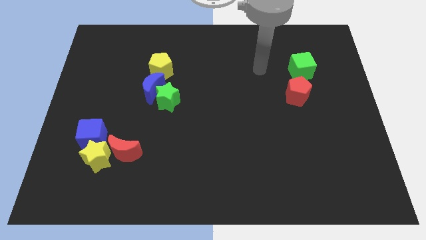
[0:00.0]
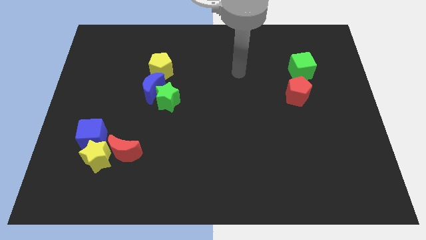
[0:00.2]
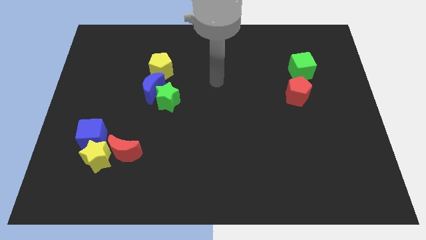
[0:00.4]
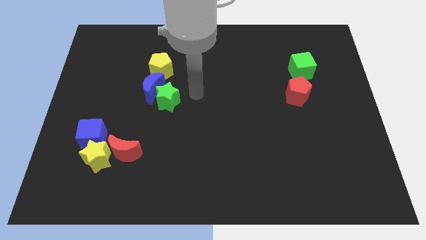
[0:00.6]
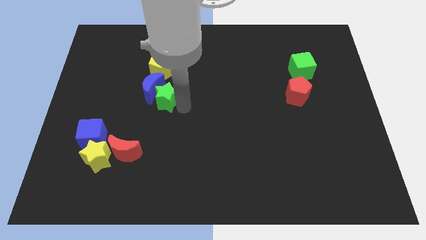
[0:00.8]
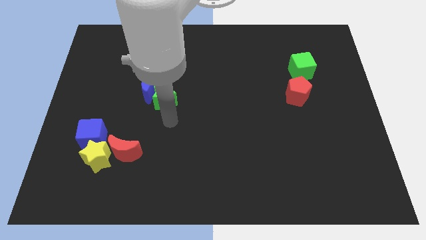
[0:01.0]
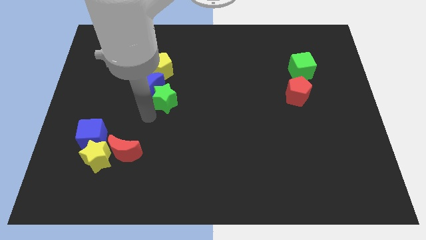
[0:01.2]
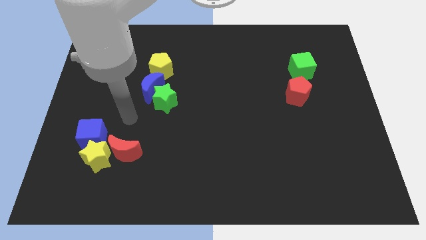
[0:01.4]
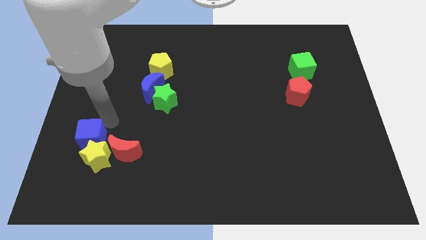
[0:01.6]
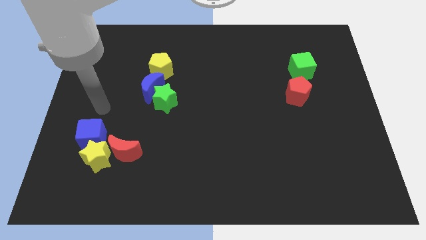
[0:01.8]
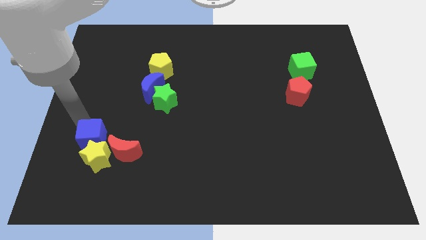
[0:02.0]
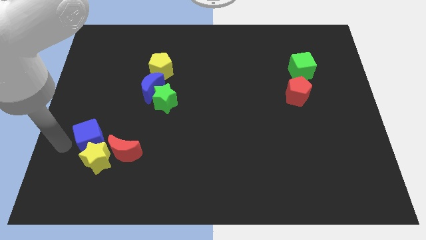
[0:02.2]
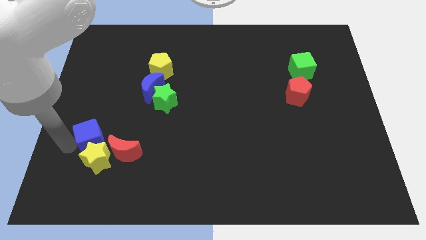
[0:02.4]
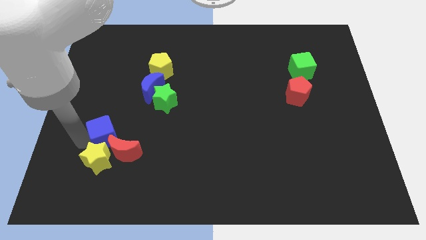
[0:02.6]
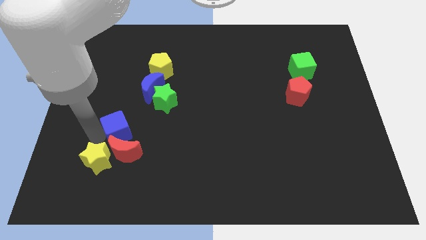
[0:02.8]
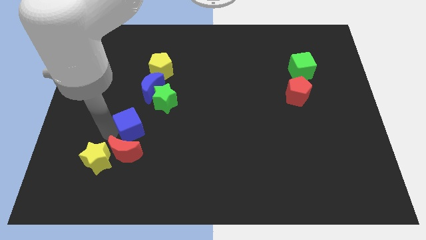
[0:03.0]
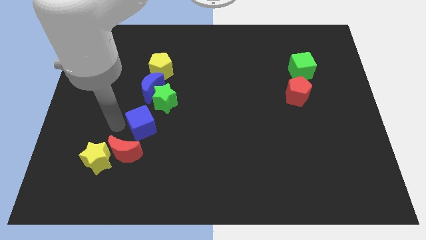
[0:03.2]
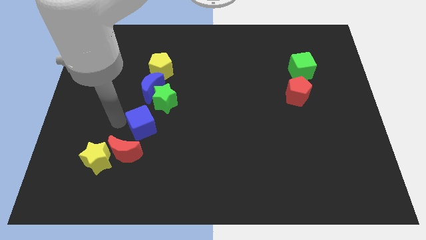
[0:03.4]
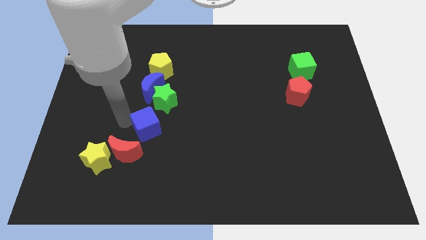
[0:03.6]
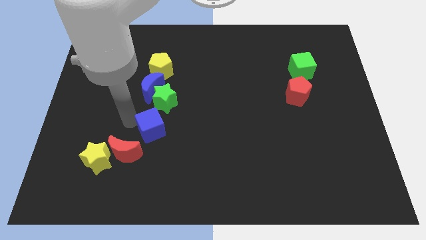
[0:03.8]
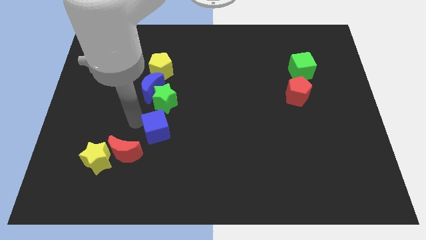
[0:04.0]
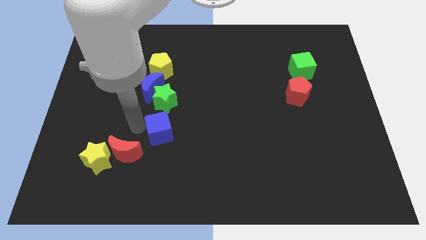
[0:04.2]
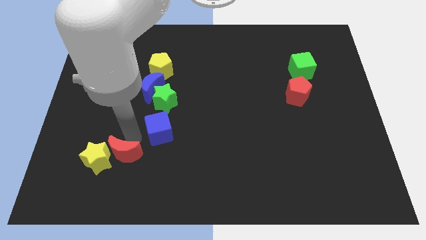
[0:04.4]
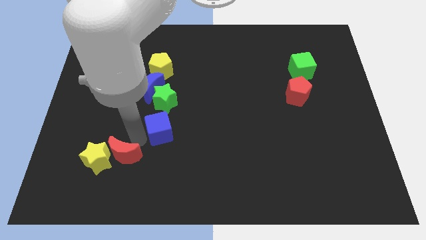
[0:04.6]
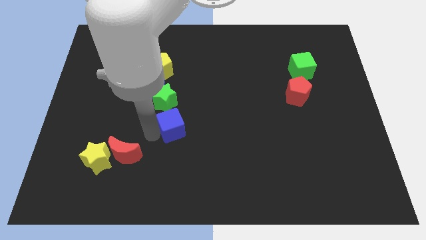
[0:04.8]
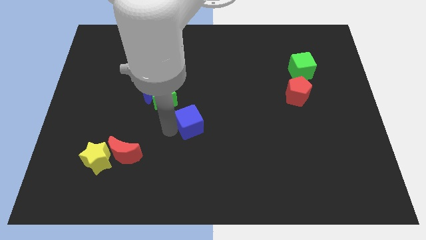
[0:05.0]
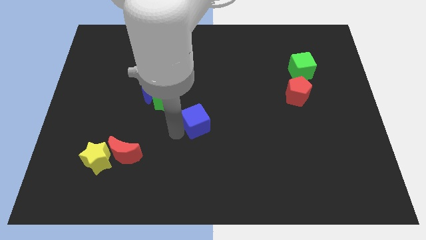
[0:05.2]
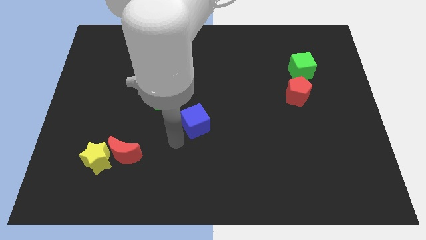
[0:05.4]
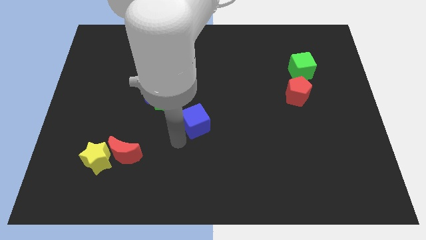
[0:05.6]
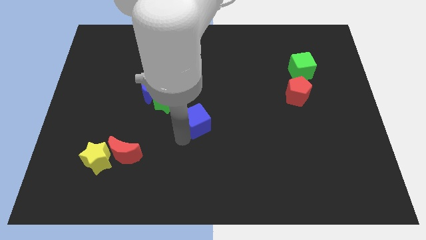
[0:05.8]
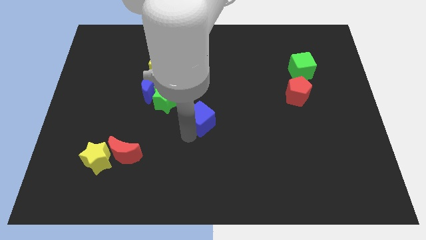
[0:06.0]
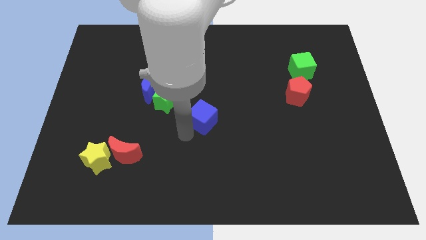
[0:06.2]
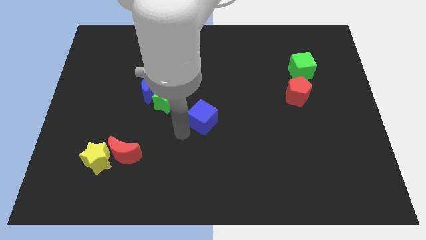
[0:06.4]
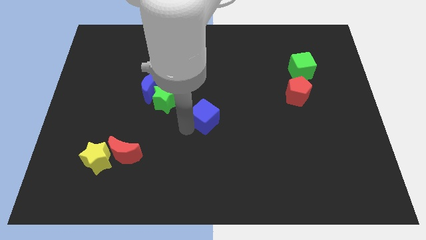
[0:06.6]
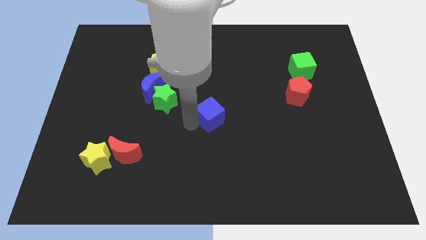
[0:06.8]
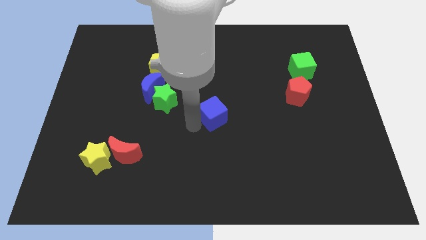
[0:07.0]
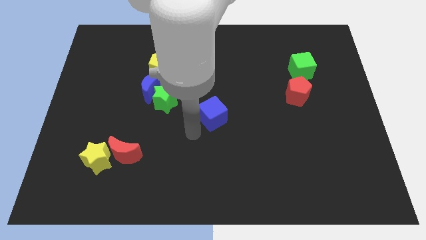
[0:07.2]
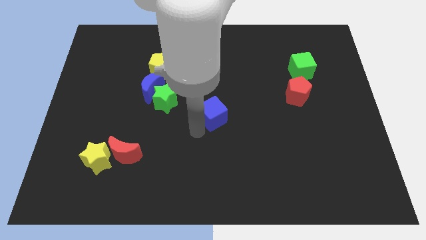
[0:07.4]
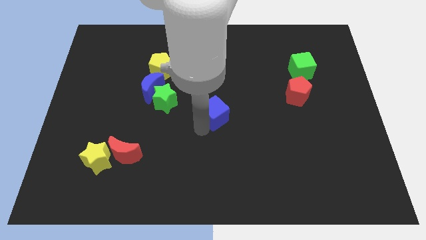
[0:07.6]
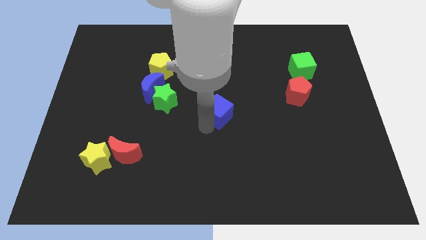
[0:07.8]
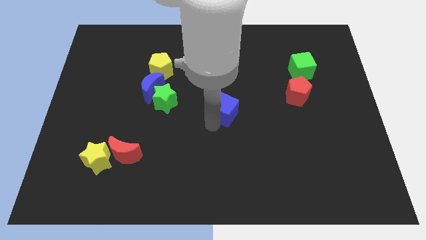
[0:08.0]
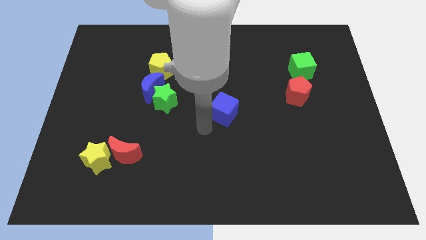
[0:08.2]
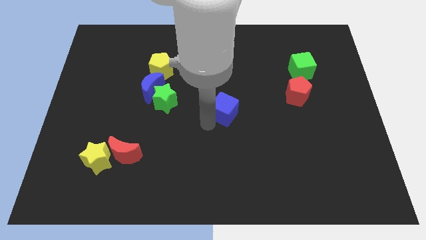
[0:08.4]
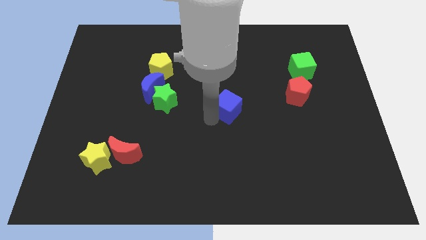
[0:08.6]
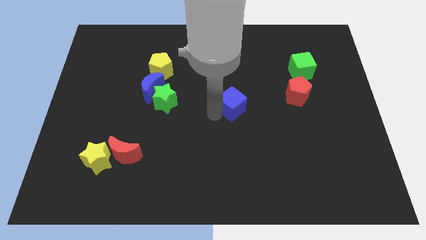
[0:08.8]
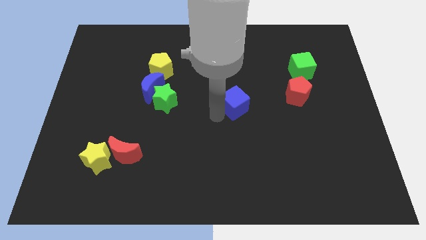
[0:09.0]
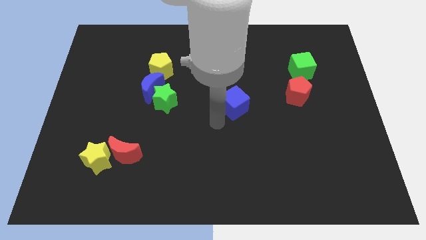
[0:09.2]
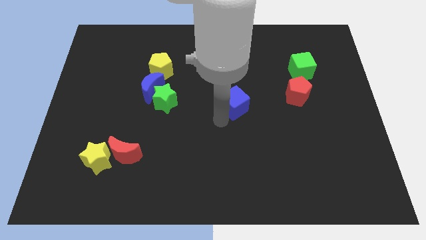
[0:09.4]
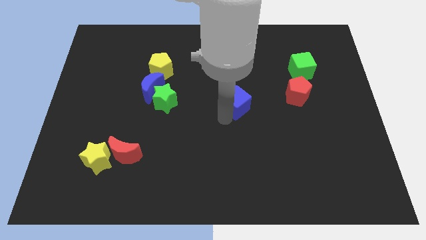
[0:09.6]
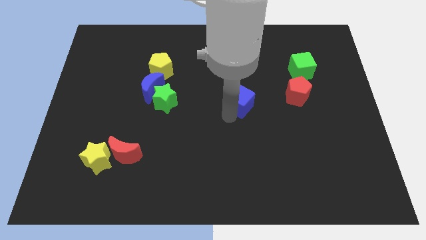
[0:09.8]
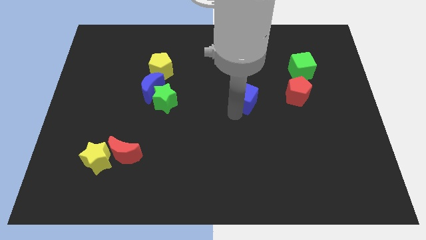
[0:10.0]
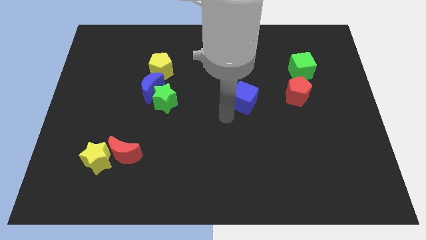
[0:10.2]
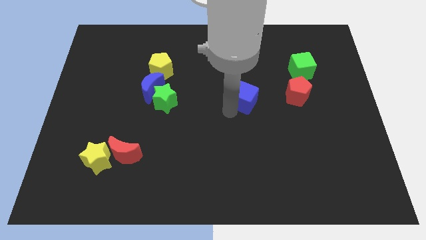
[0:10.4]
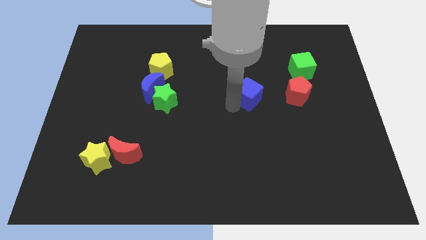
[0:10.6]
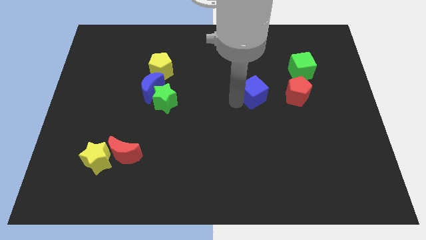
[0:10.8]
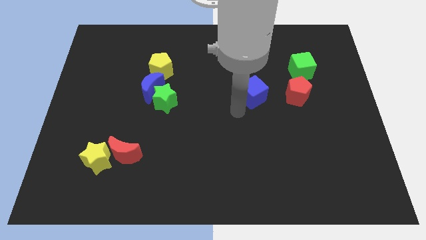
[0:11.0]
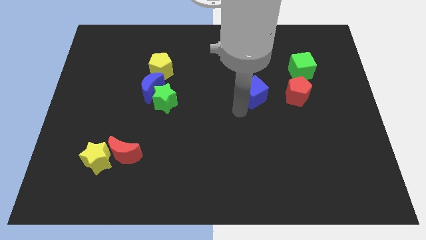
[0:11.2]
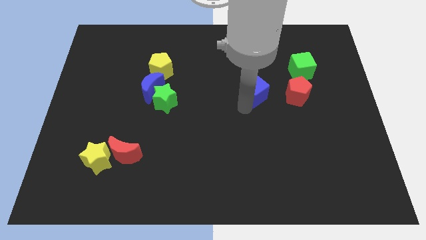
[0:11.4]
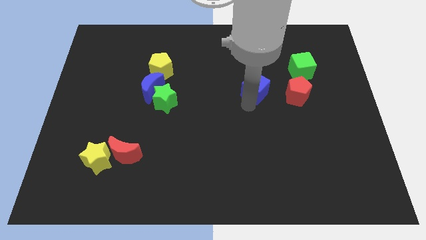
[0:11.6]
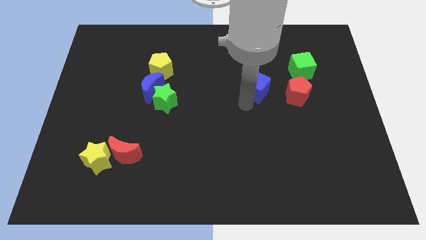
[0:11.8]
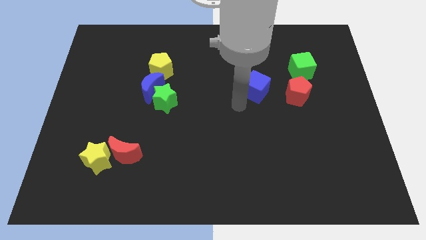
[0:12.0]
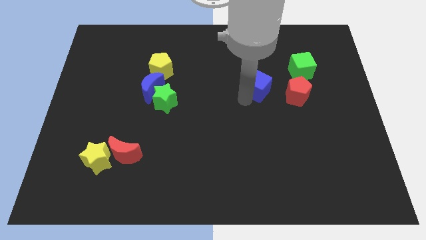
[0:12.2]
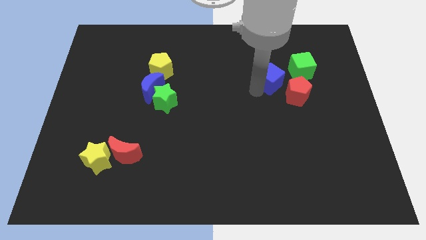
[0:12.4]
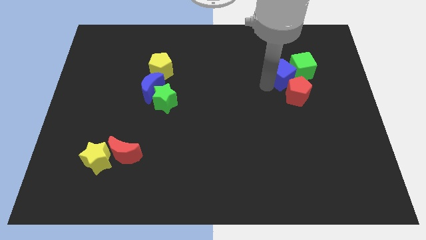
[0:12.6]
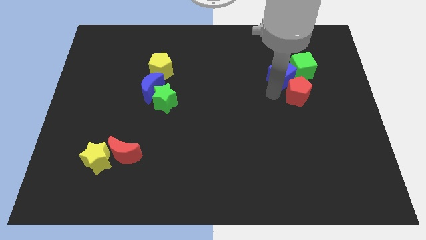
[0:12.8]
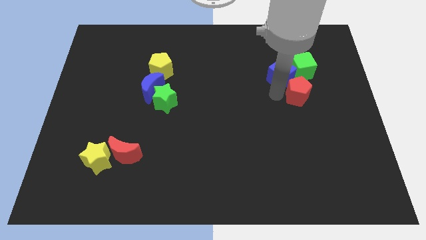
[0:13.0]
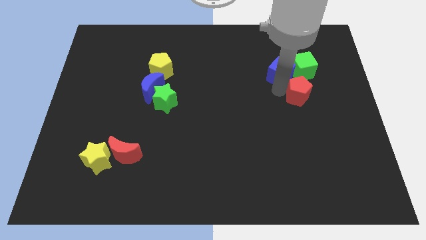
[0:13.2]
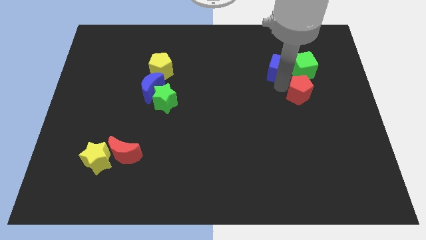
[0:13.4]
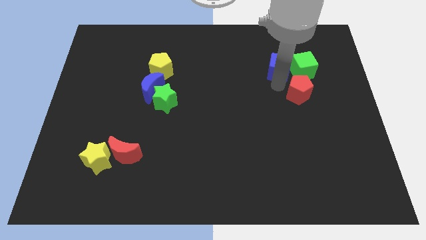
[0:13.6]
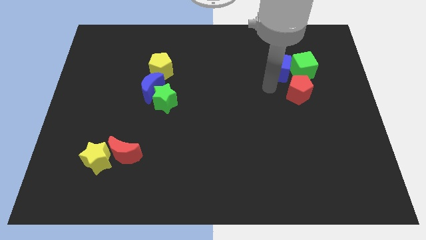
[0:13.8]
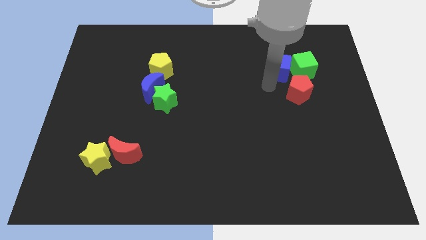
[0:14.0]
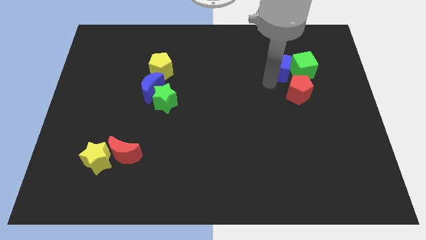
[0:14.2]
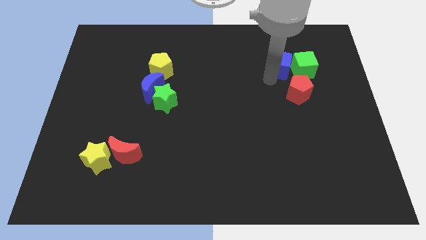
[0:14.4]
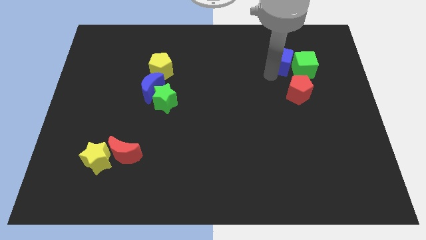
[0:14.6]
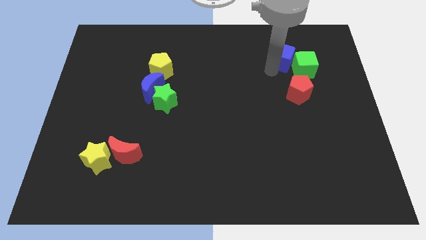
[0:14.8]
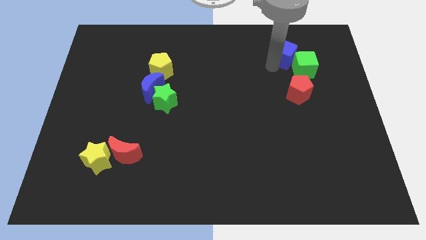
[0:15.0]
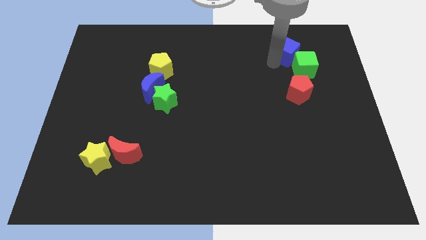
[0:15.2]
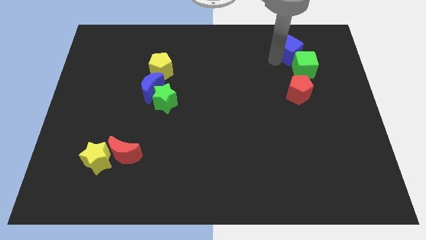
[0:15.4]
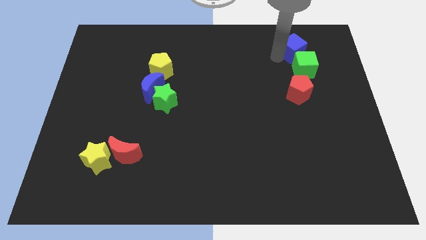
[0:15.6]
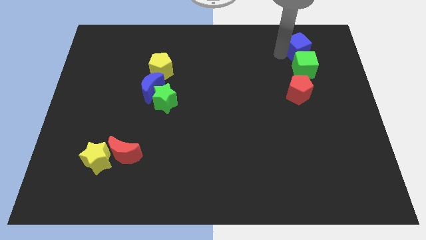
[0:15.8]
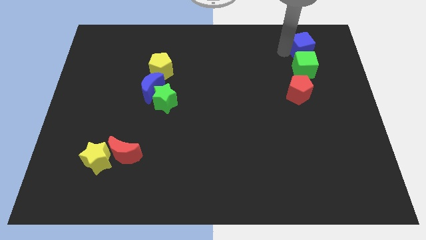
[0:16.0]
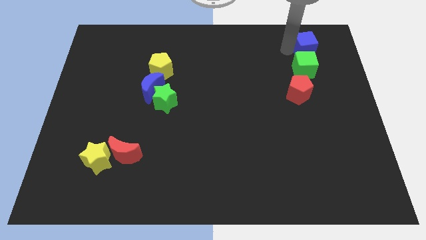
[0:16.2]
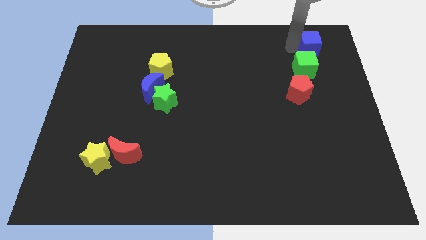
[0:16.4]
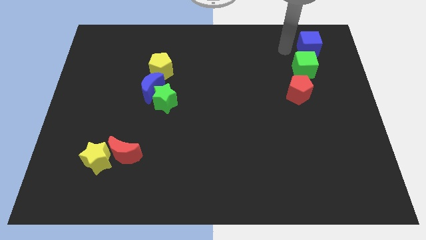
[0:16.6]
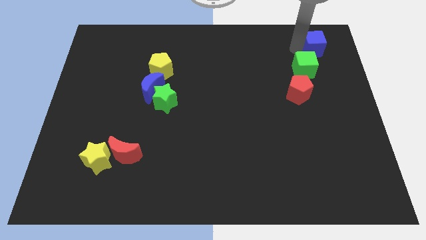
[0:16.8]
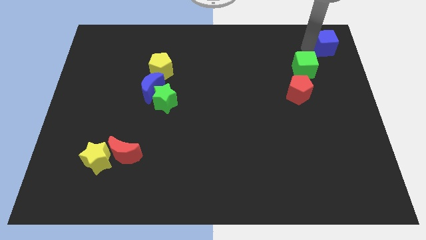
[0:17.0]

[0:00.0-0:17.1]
move the blue cube to the upper right corner
